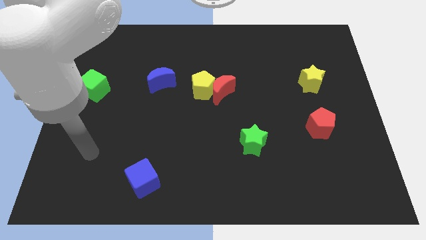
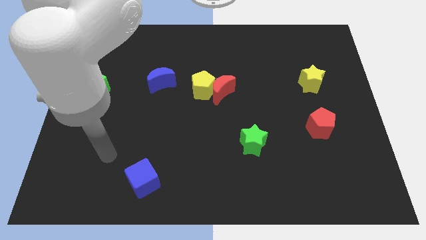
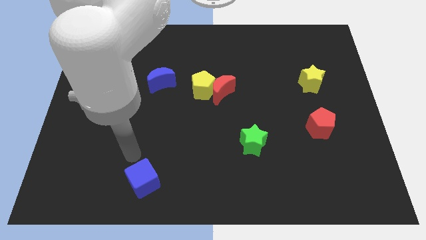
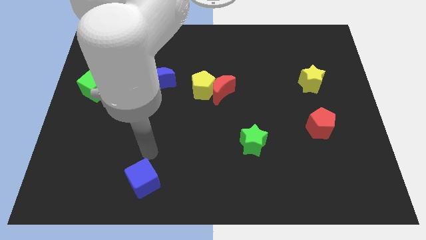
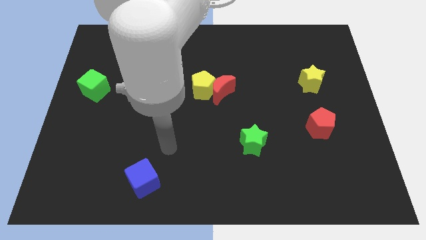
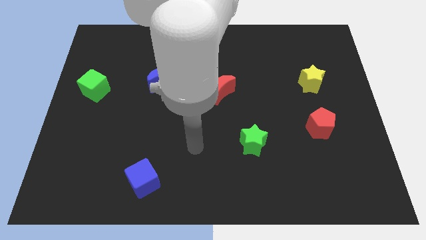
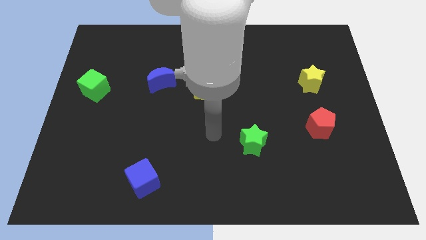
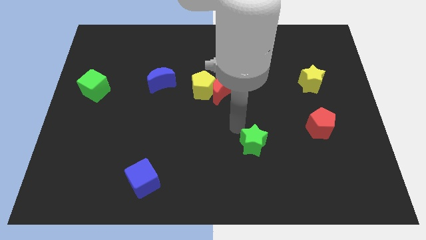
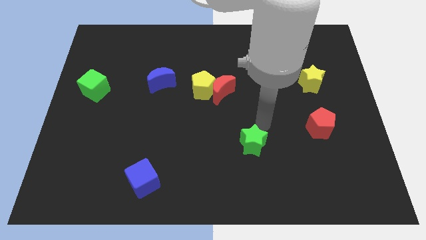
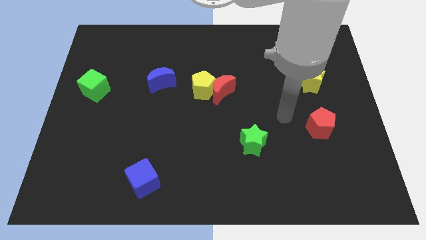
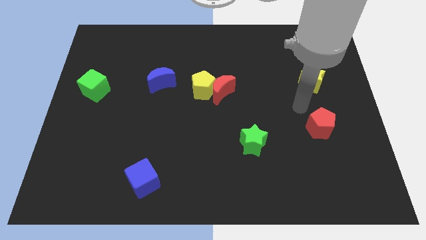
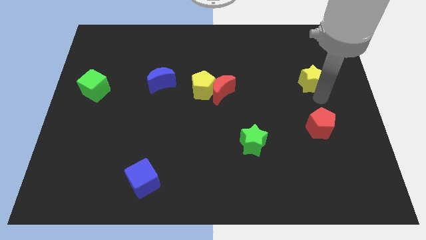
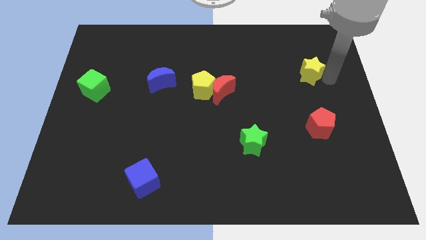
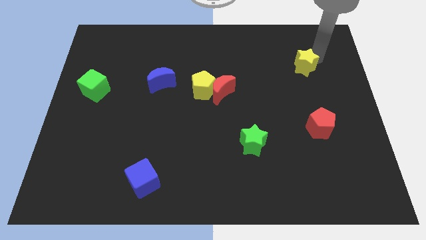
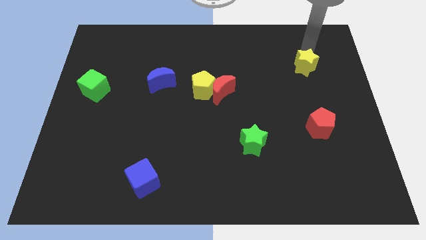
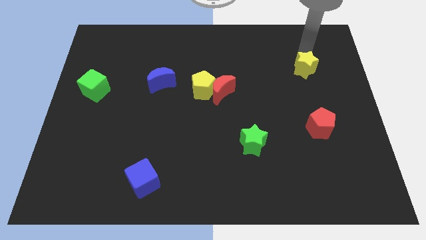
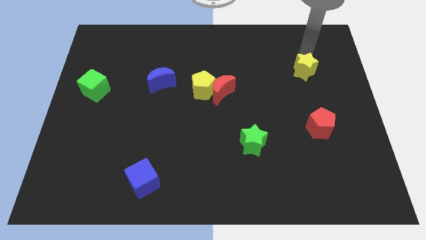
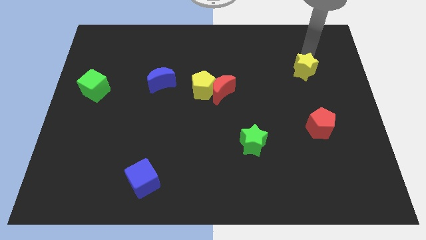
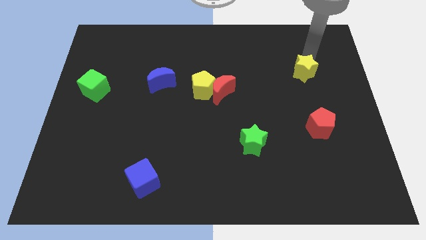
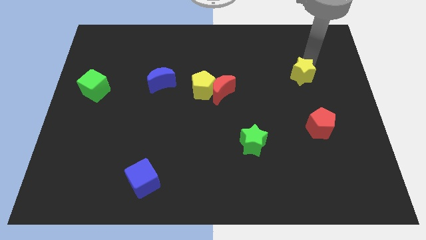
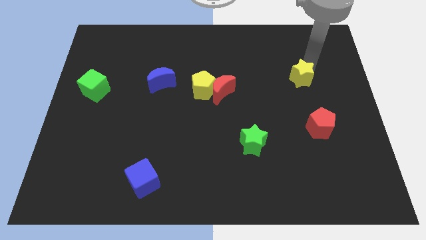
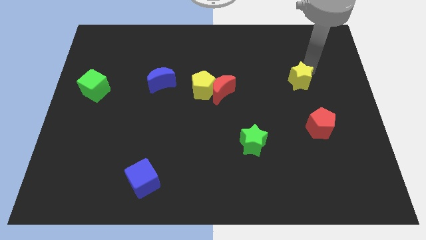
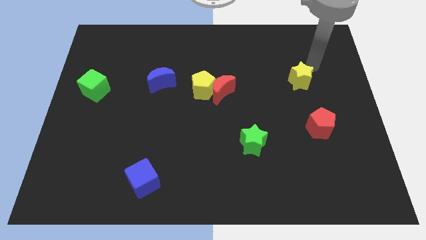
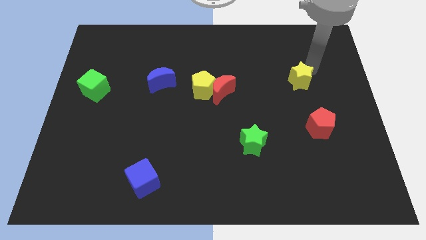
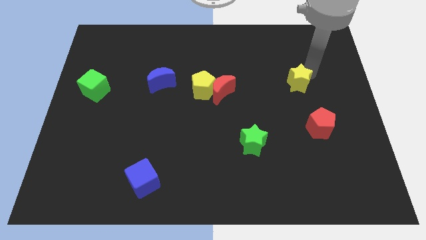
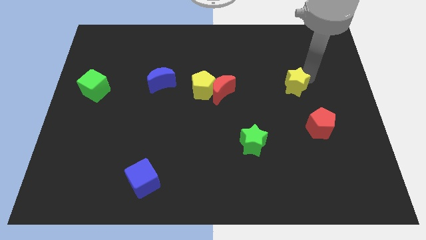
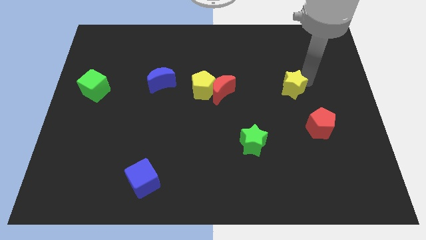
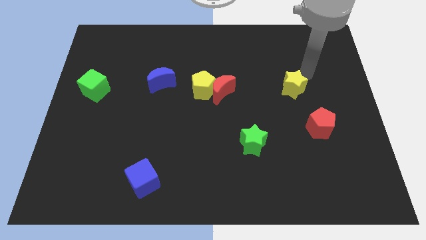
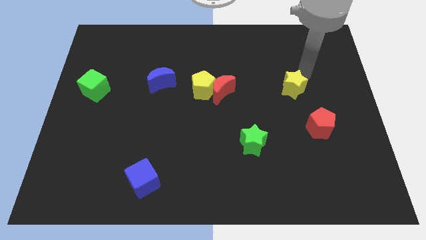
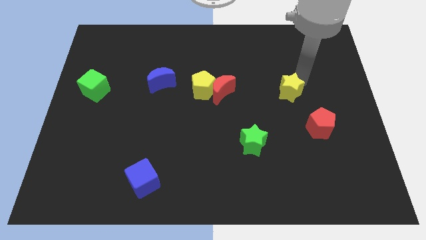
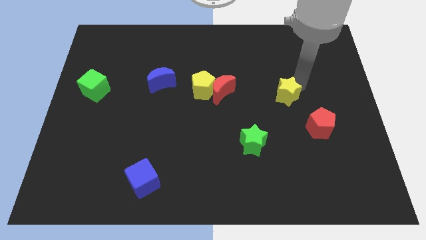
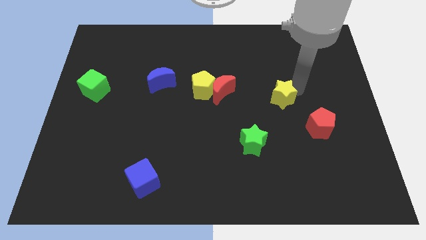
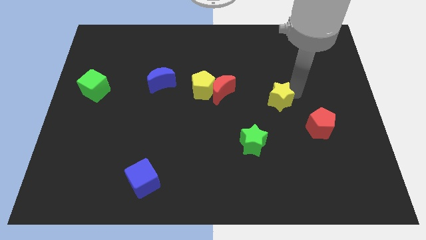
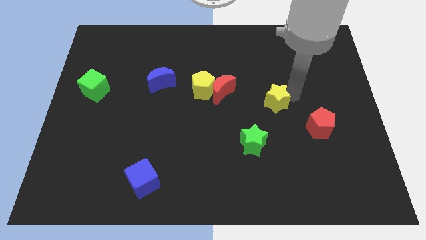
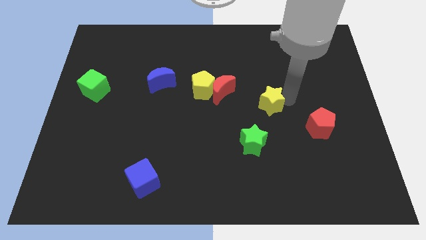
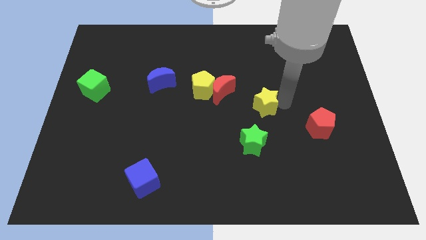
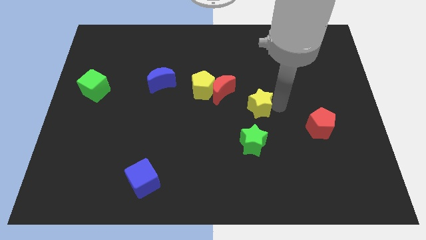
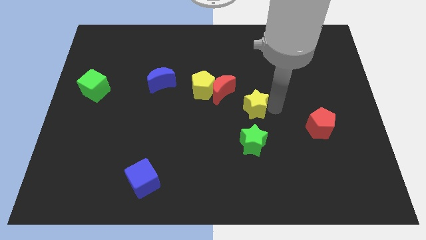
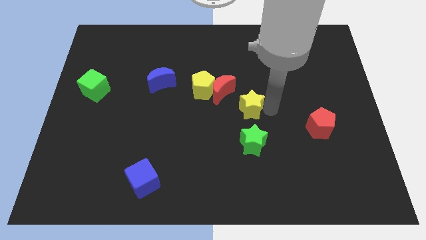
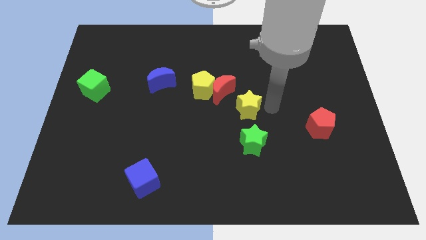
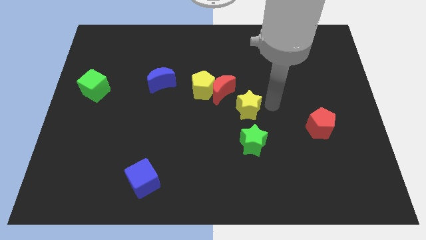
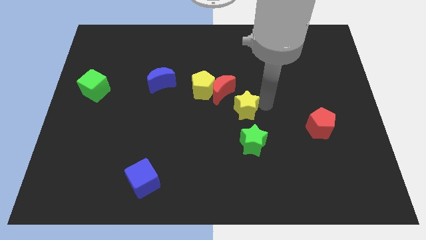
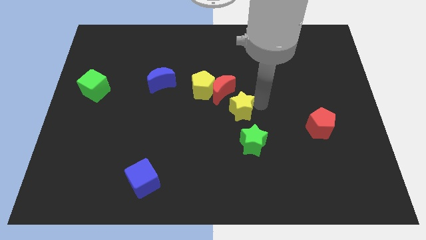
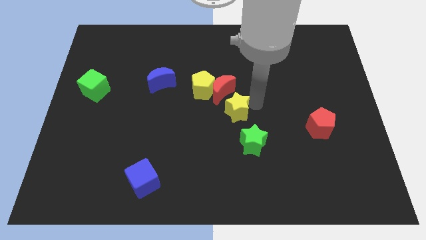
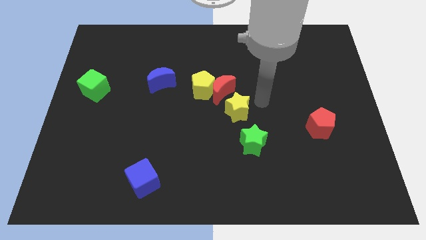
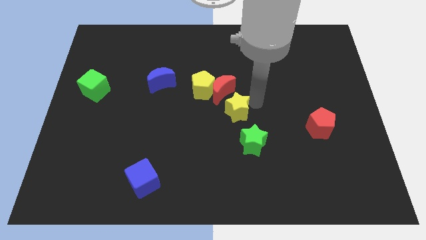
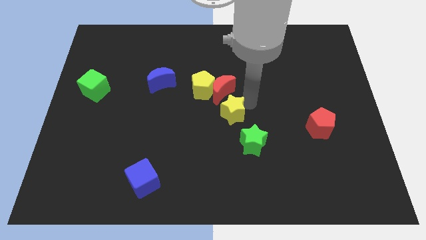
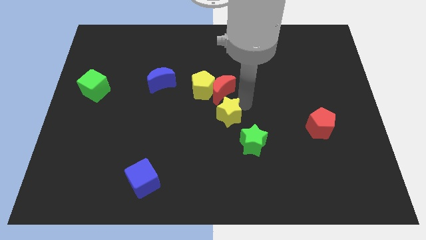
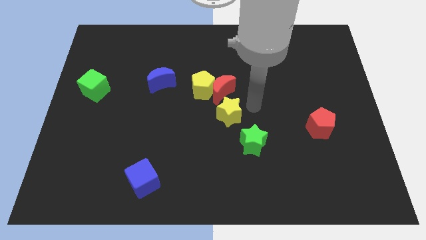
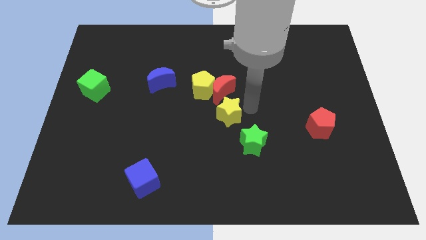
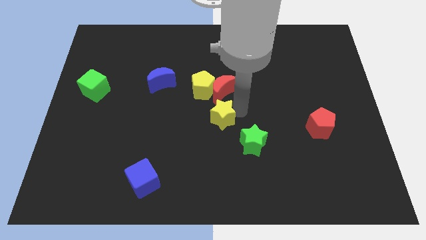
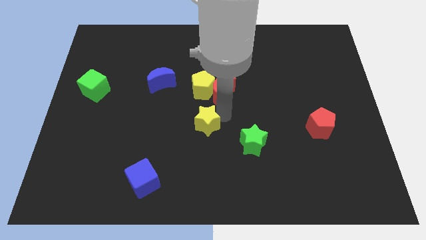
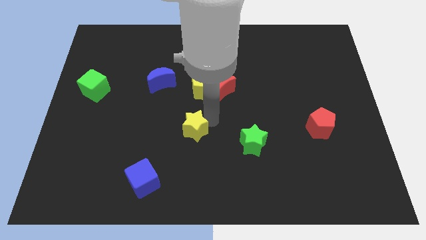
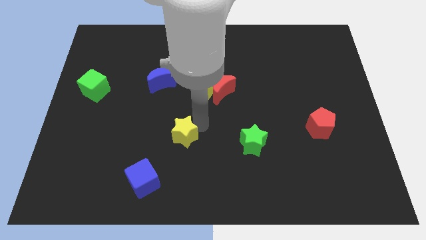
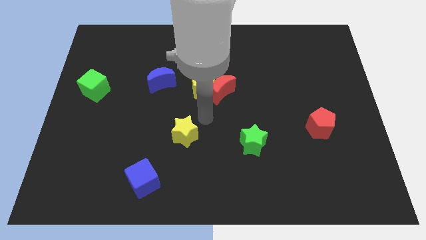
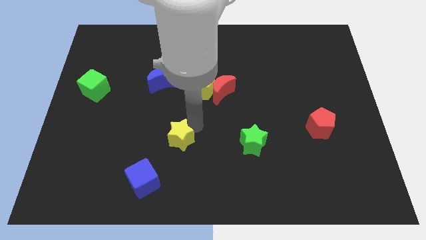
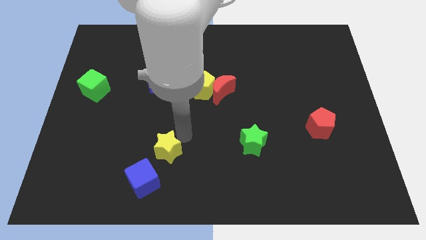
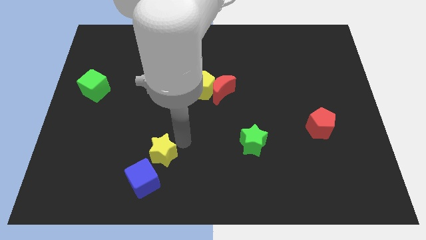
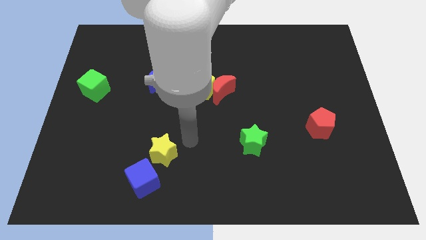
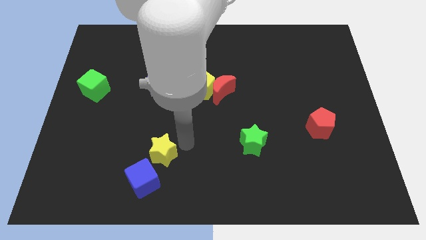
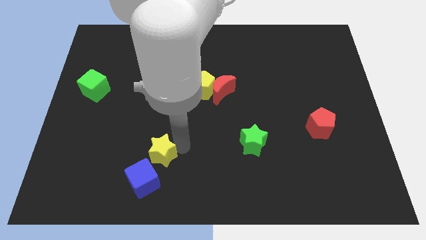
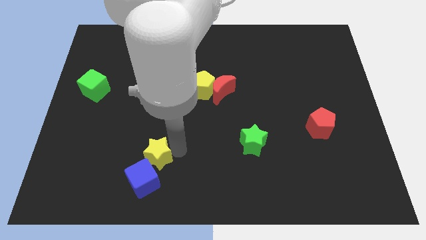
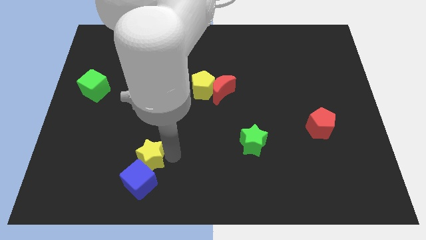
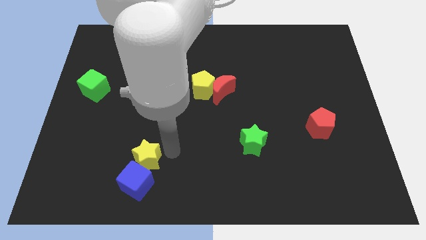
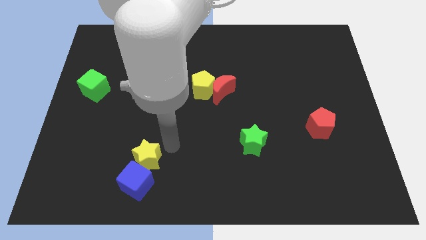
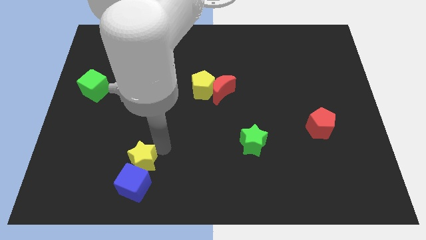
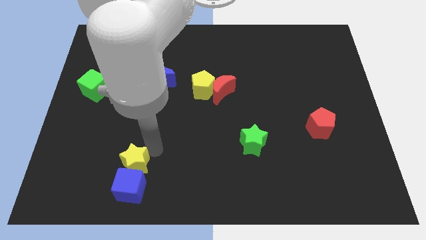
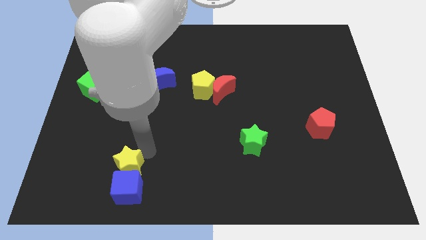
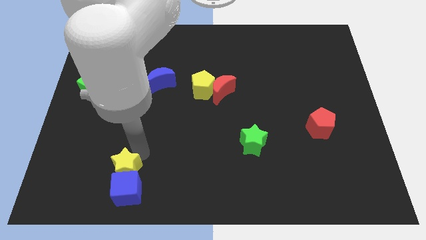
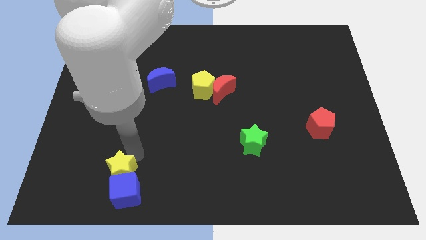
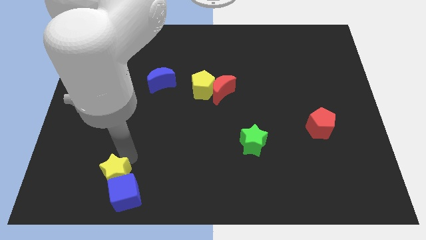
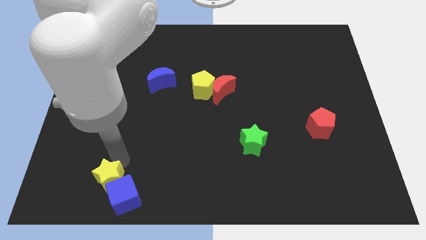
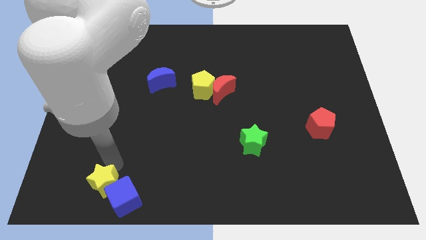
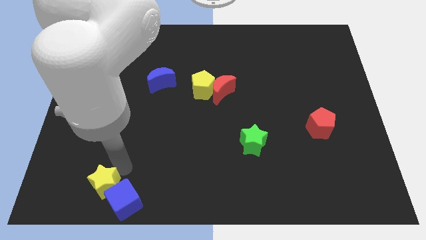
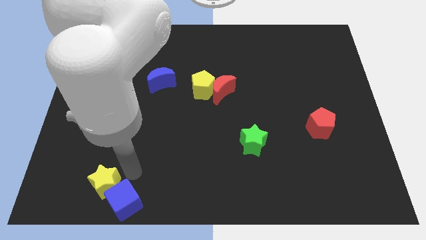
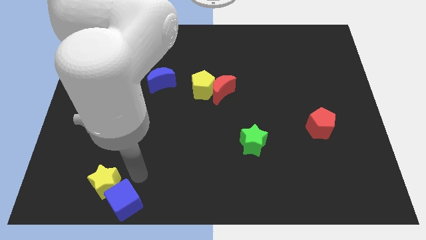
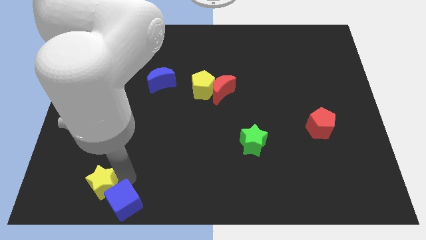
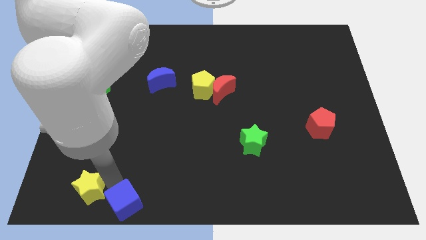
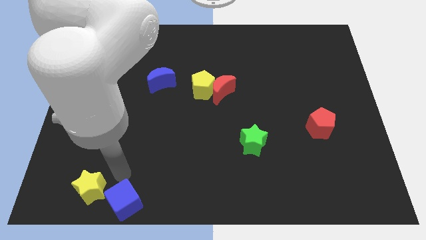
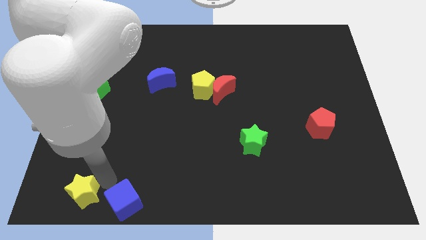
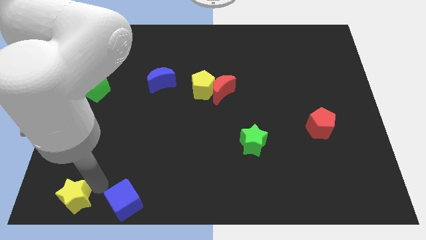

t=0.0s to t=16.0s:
push the yellow star to the bottom left
